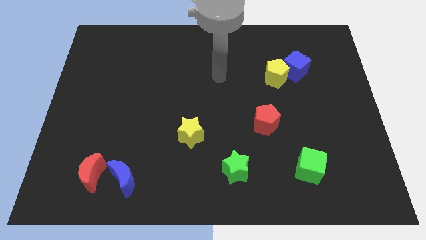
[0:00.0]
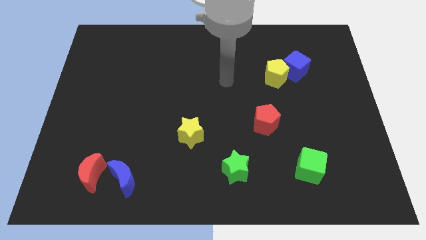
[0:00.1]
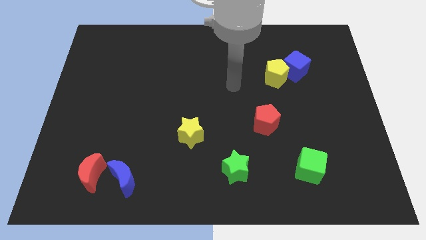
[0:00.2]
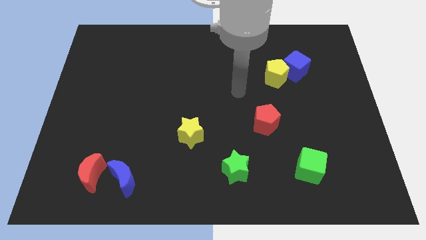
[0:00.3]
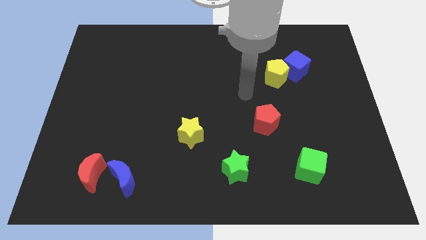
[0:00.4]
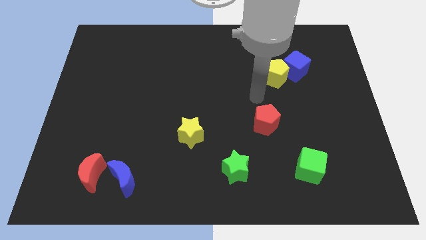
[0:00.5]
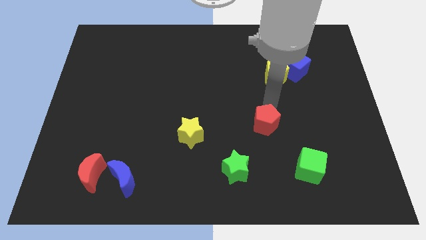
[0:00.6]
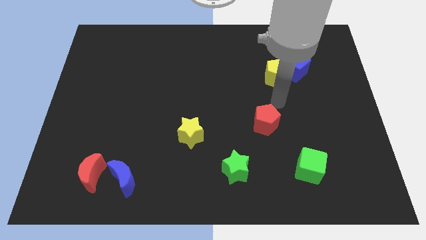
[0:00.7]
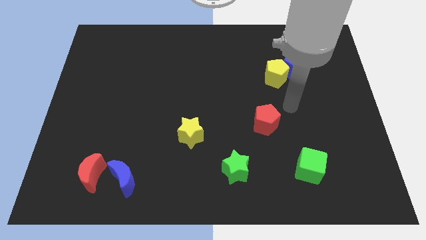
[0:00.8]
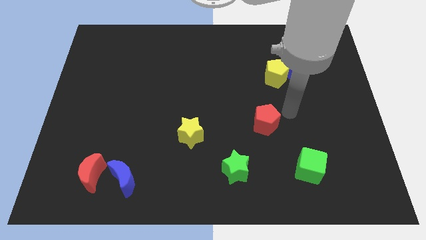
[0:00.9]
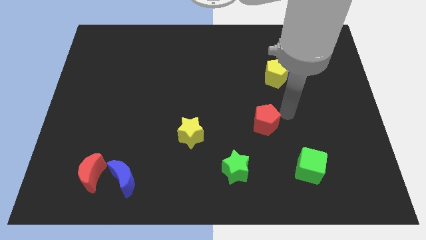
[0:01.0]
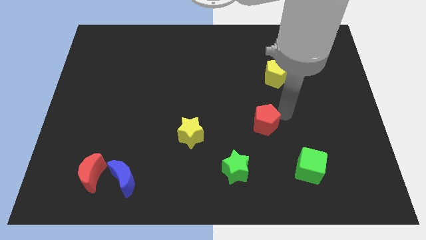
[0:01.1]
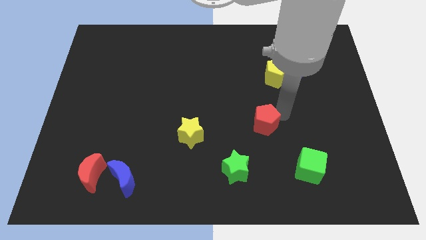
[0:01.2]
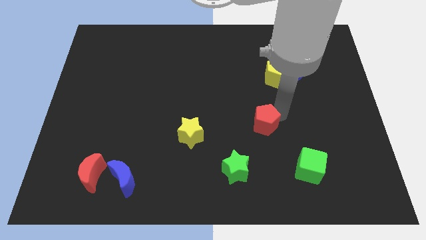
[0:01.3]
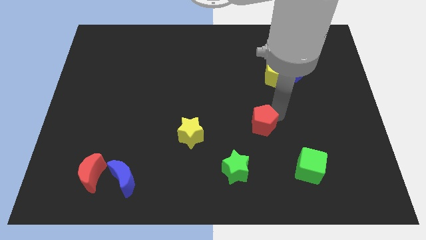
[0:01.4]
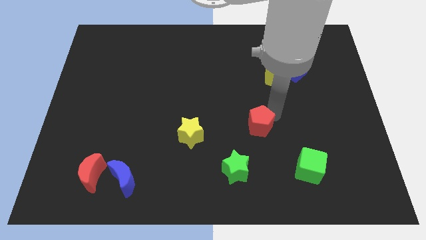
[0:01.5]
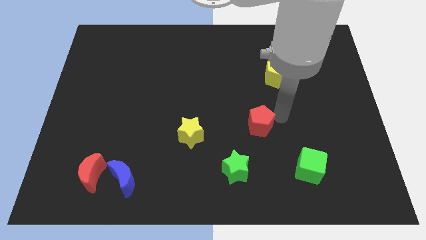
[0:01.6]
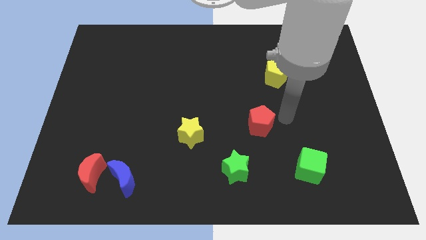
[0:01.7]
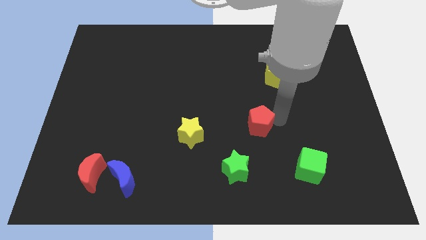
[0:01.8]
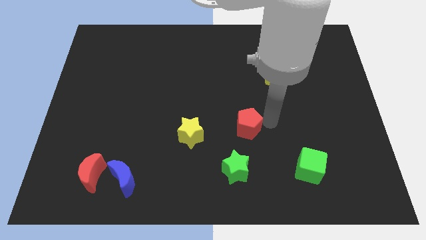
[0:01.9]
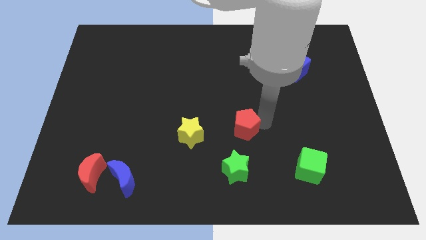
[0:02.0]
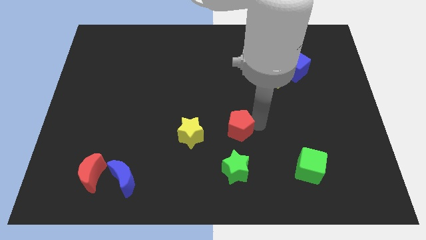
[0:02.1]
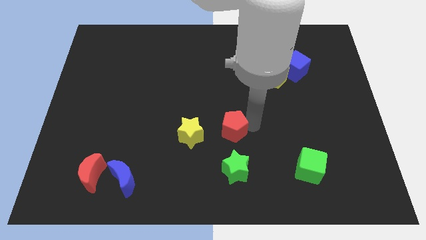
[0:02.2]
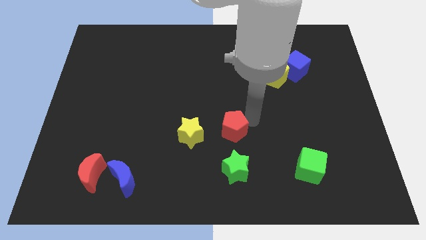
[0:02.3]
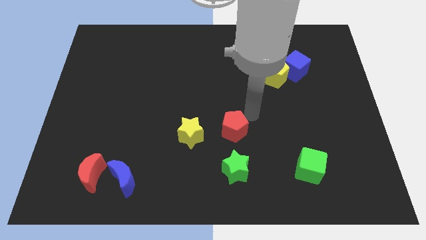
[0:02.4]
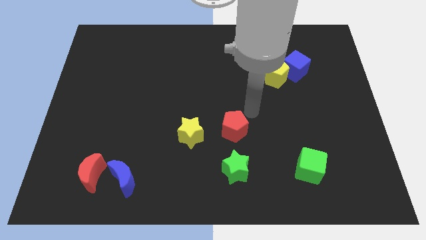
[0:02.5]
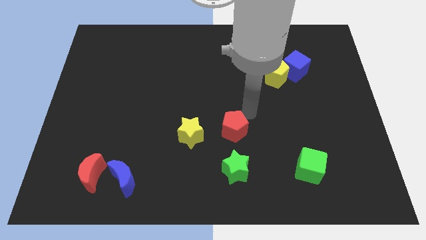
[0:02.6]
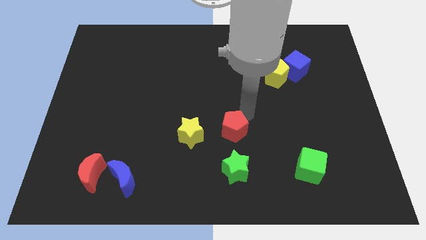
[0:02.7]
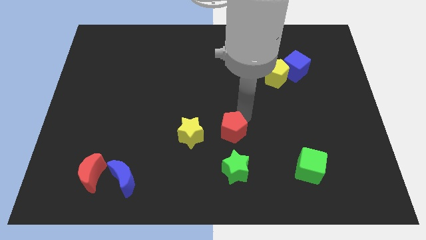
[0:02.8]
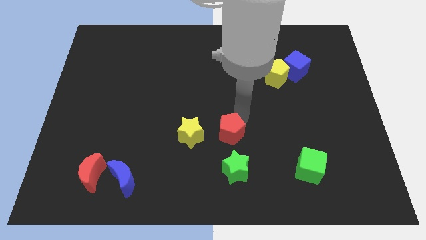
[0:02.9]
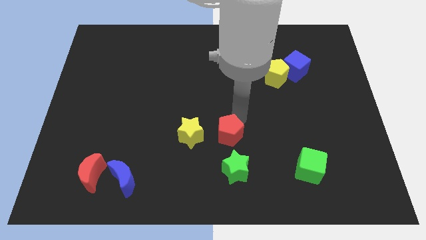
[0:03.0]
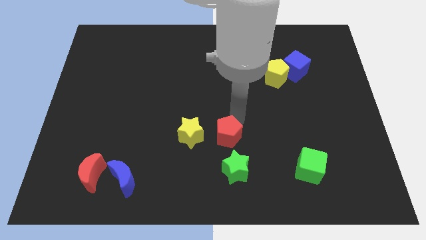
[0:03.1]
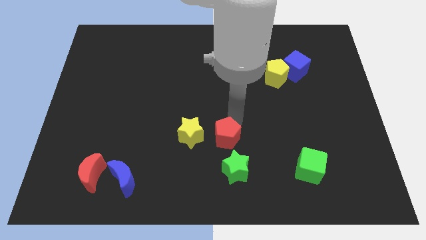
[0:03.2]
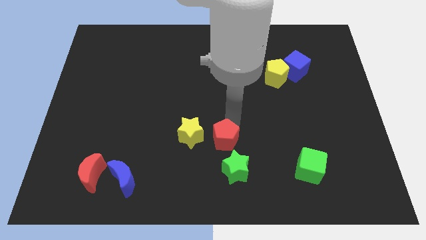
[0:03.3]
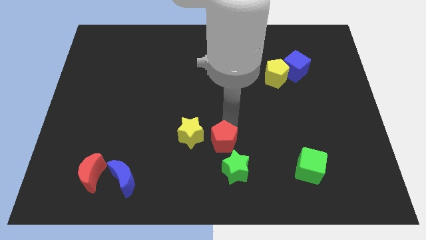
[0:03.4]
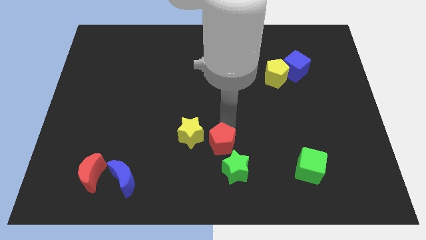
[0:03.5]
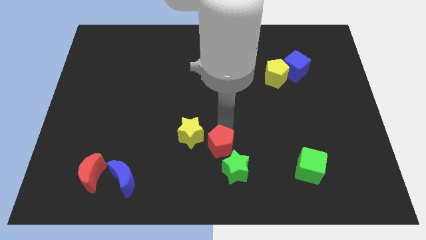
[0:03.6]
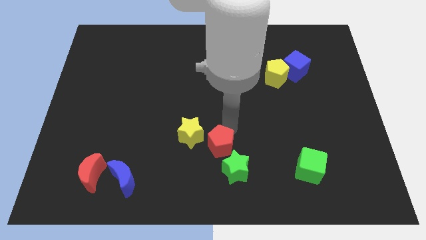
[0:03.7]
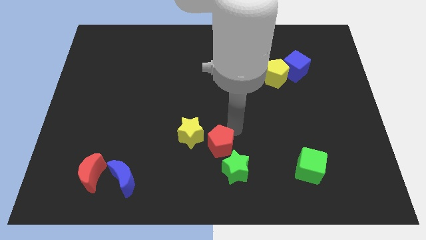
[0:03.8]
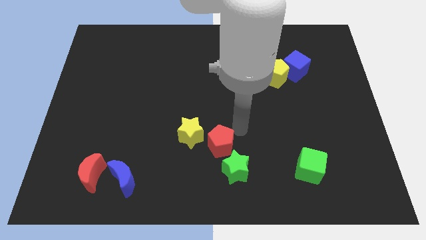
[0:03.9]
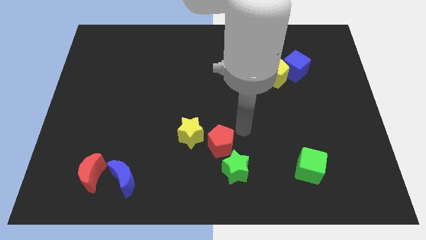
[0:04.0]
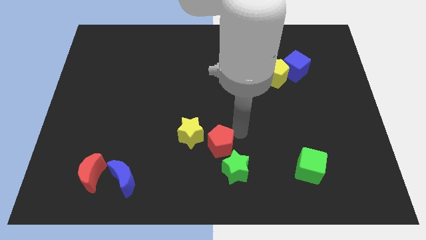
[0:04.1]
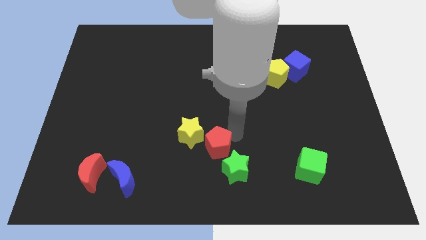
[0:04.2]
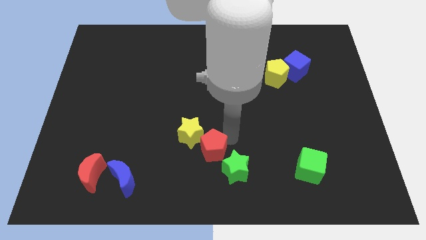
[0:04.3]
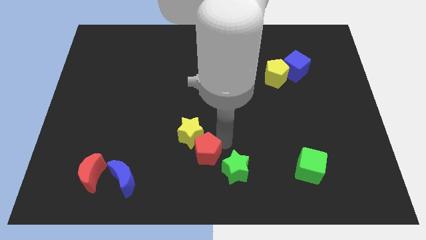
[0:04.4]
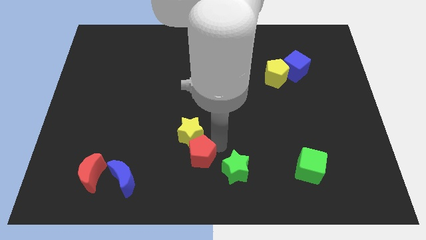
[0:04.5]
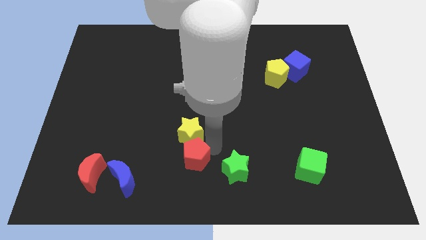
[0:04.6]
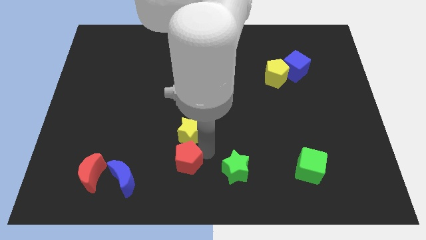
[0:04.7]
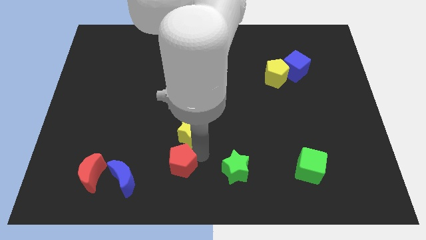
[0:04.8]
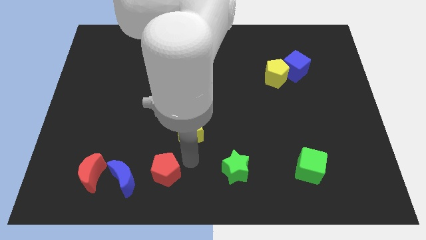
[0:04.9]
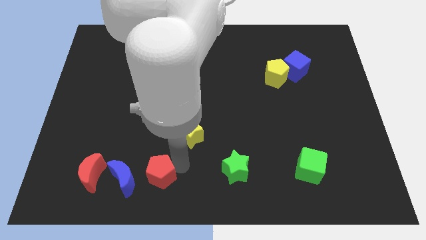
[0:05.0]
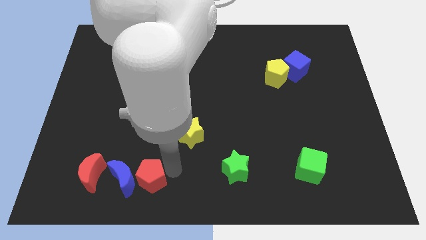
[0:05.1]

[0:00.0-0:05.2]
move the red pentagon close to the blue moon

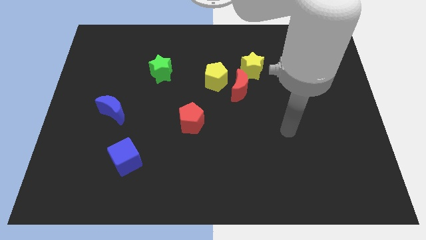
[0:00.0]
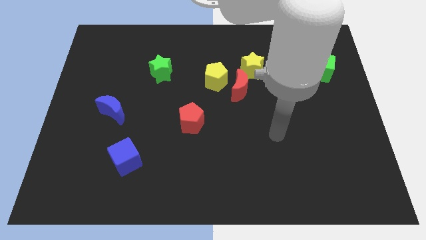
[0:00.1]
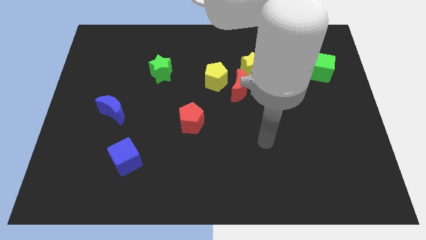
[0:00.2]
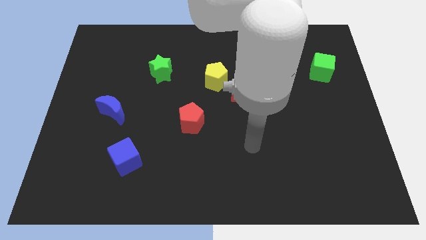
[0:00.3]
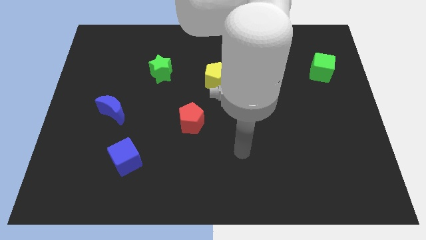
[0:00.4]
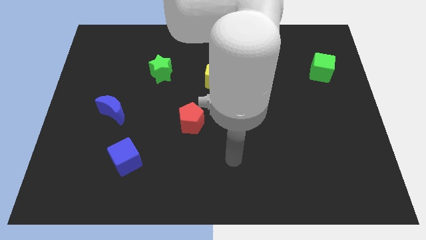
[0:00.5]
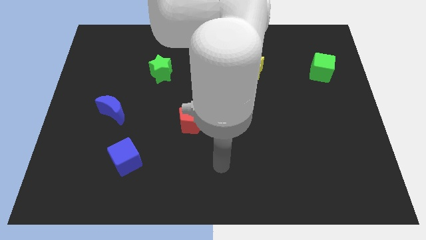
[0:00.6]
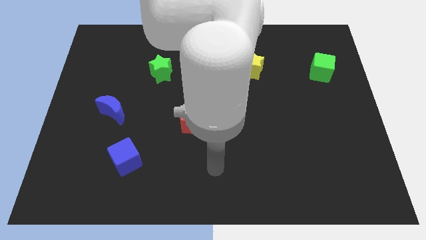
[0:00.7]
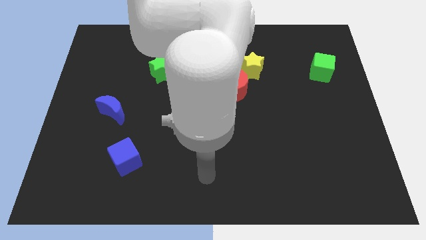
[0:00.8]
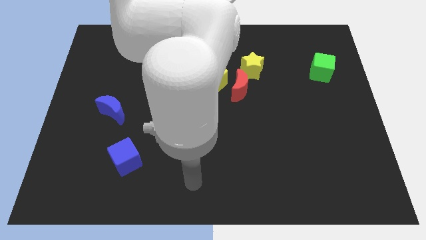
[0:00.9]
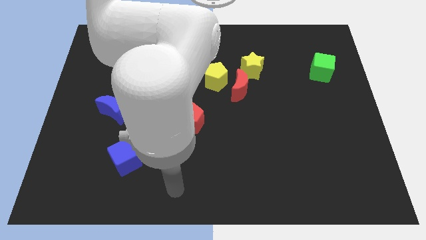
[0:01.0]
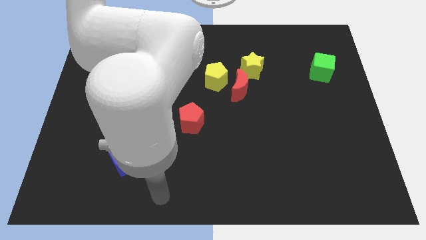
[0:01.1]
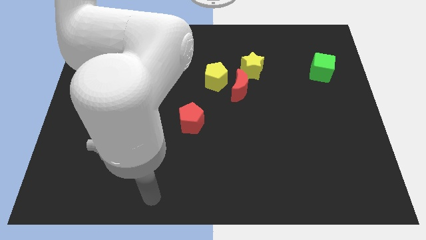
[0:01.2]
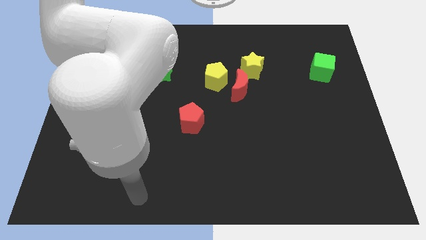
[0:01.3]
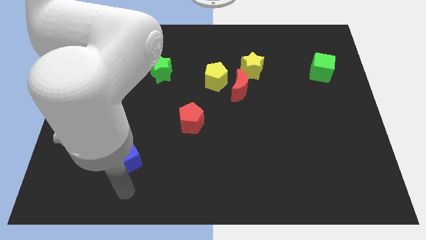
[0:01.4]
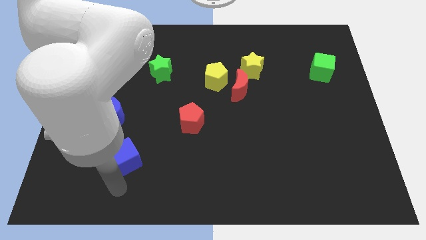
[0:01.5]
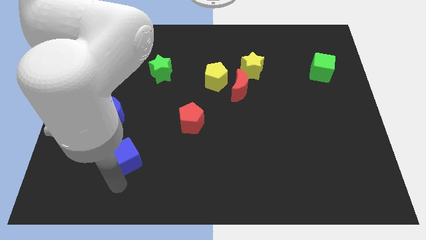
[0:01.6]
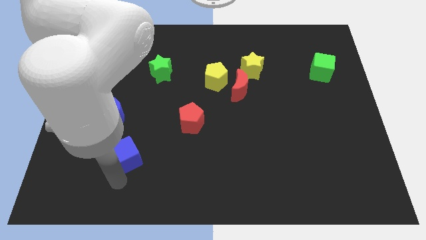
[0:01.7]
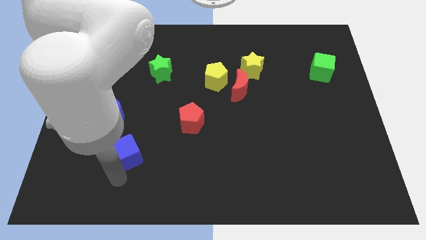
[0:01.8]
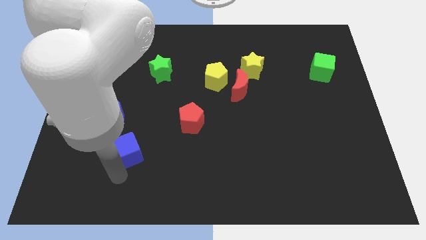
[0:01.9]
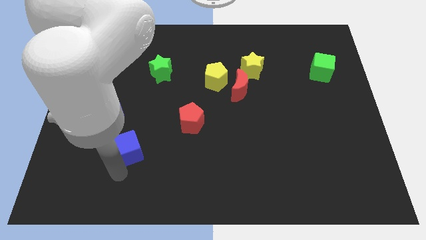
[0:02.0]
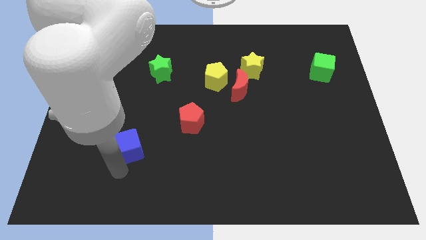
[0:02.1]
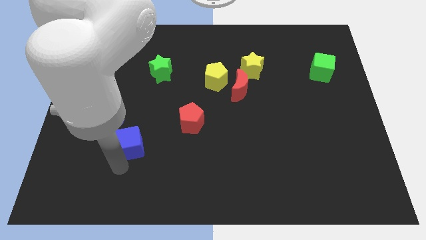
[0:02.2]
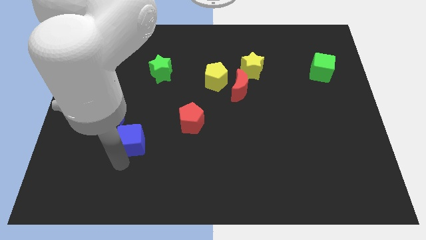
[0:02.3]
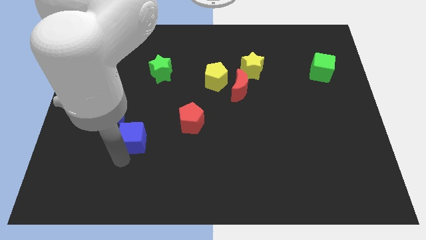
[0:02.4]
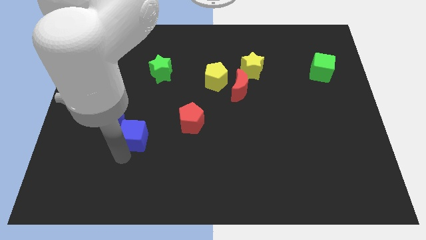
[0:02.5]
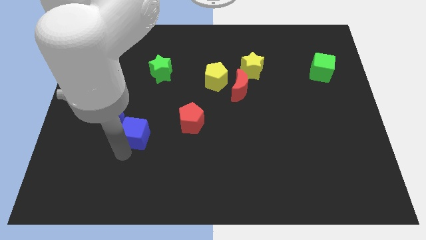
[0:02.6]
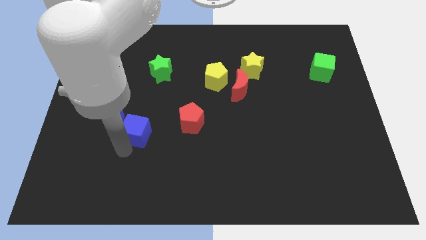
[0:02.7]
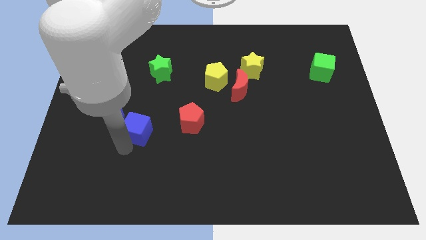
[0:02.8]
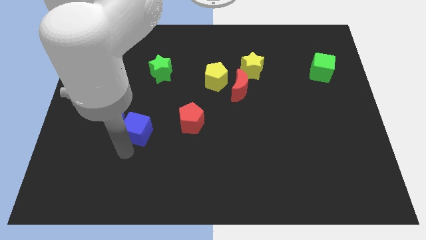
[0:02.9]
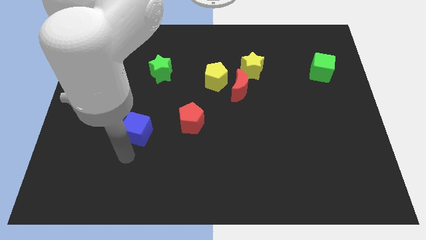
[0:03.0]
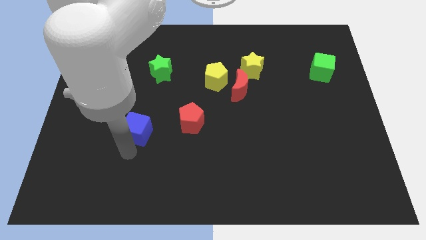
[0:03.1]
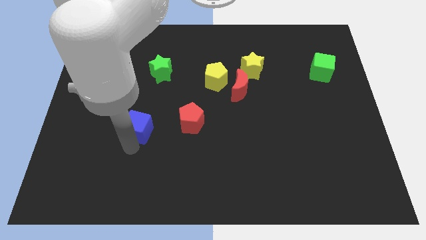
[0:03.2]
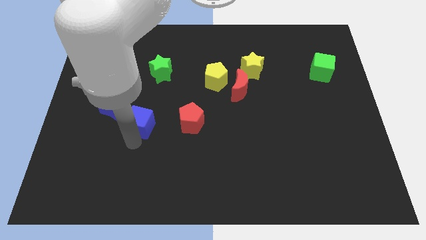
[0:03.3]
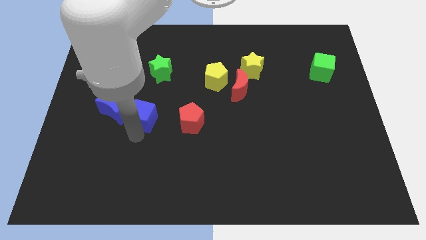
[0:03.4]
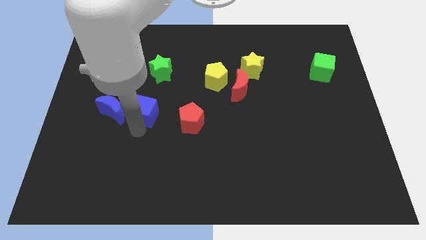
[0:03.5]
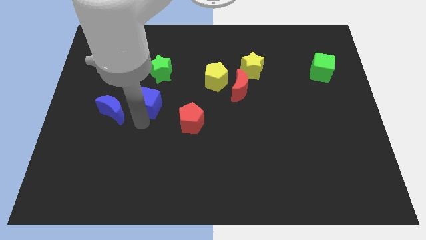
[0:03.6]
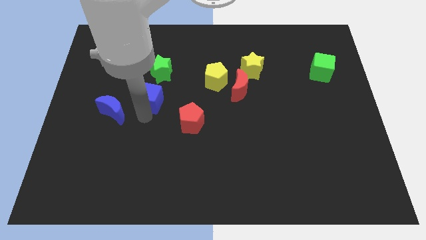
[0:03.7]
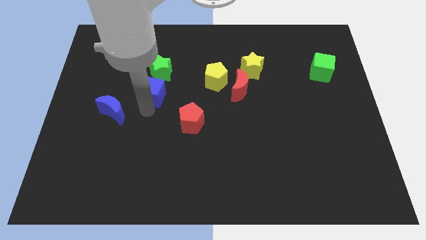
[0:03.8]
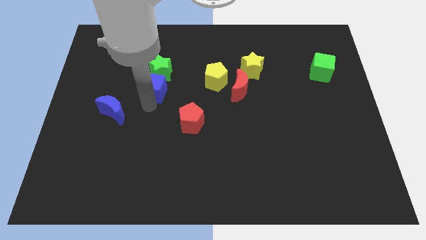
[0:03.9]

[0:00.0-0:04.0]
slide the blue cube next to the green star
